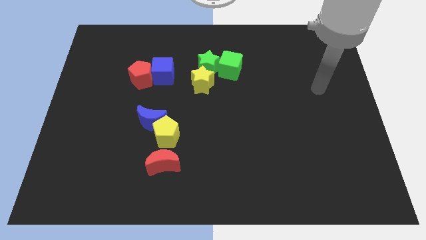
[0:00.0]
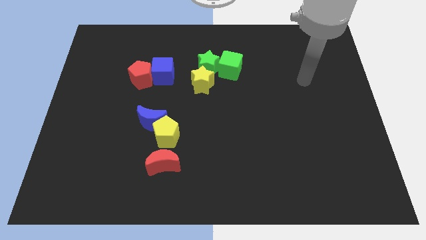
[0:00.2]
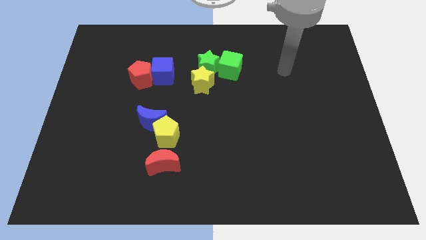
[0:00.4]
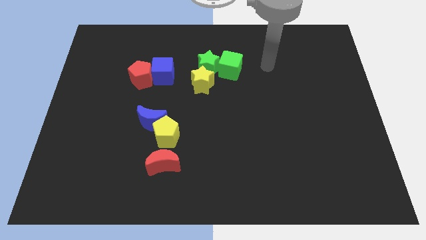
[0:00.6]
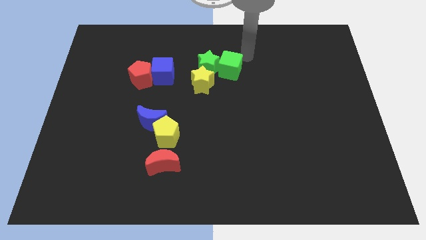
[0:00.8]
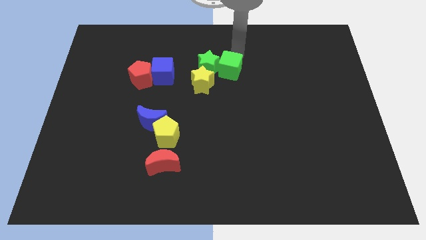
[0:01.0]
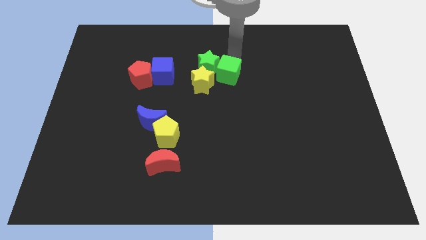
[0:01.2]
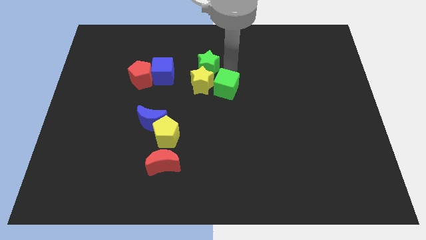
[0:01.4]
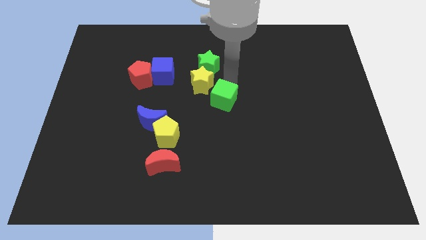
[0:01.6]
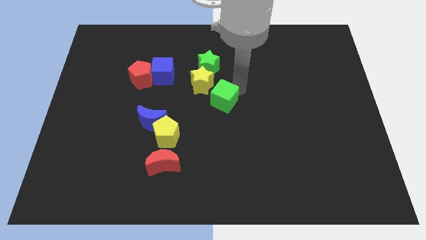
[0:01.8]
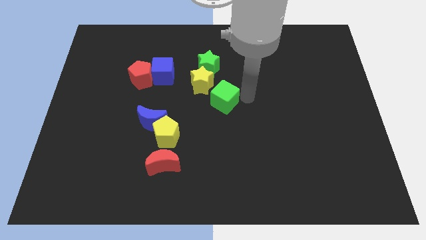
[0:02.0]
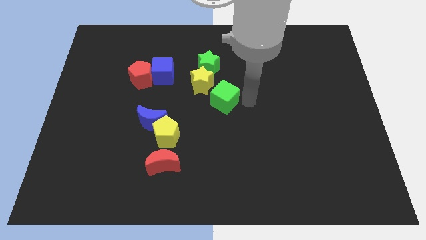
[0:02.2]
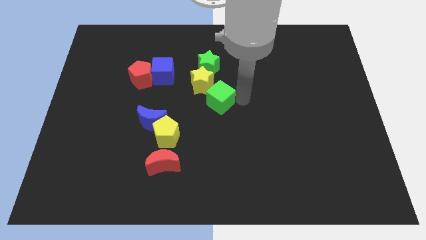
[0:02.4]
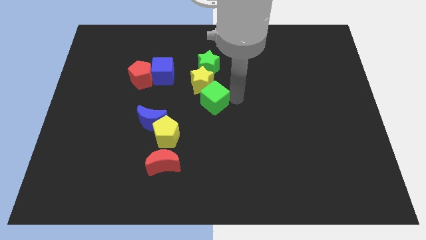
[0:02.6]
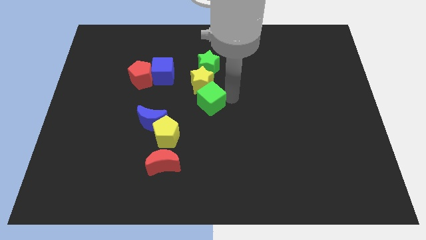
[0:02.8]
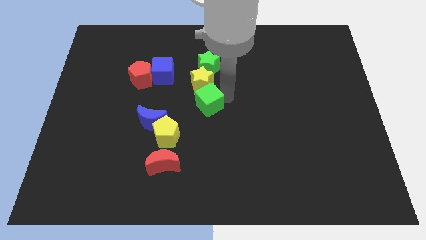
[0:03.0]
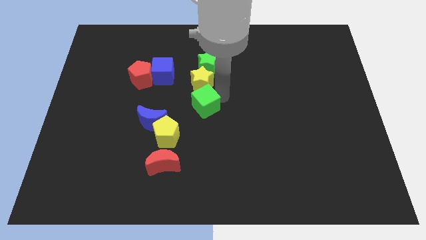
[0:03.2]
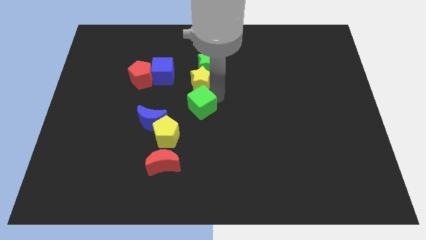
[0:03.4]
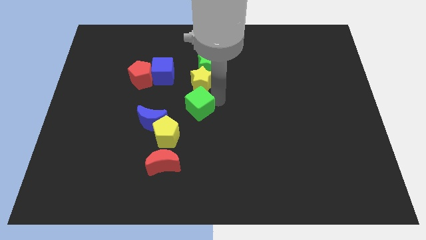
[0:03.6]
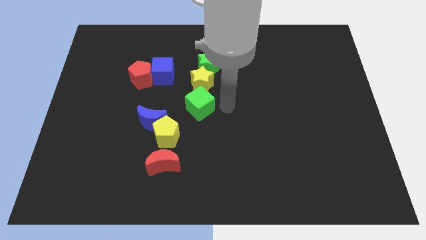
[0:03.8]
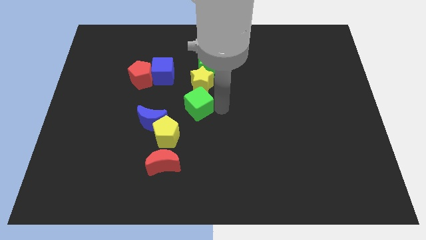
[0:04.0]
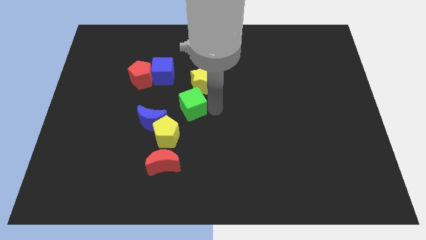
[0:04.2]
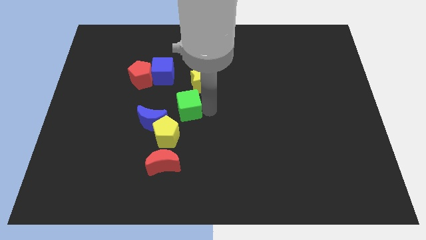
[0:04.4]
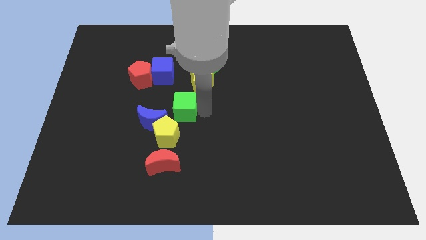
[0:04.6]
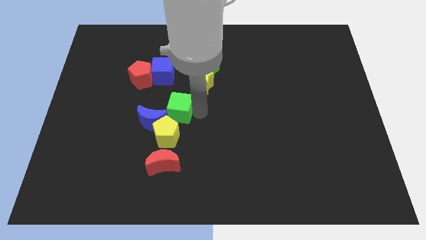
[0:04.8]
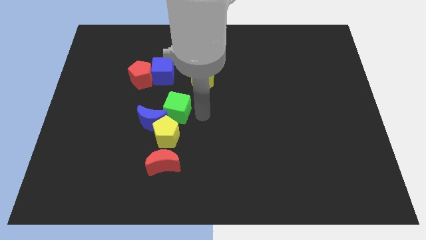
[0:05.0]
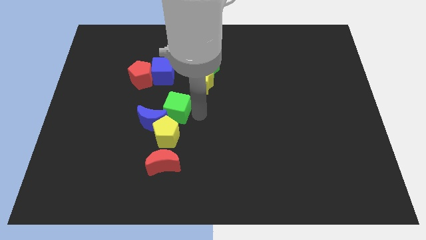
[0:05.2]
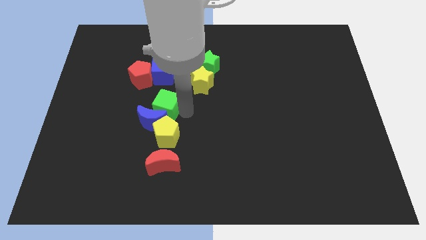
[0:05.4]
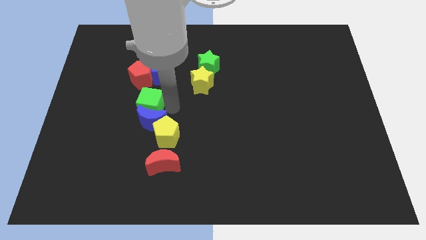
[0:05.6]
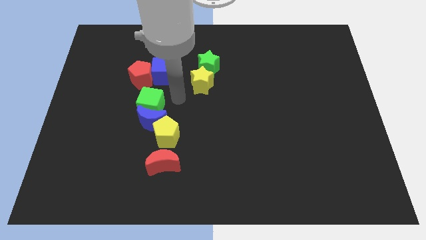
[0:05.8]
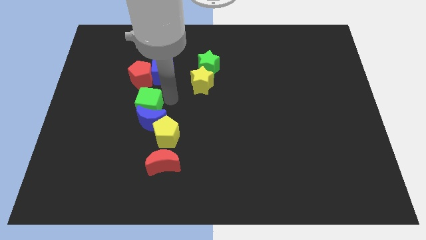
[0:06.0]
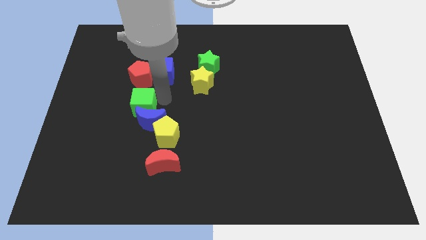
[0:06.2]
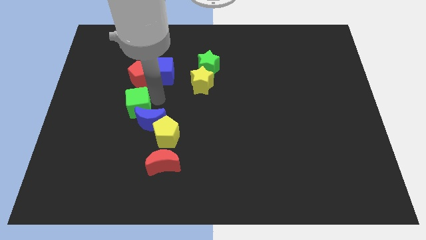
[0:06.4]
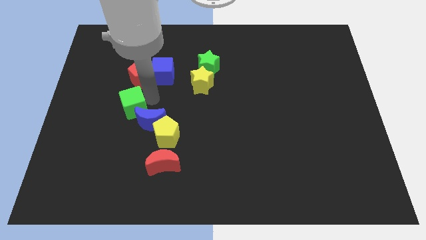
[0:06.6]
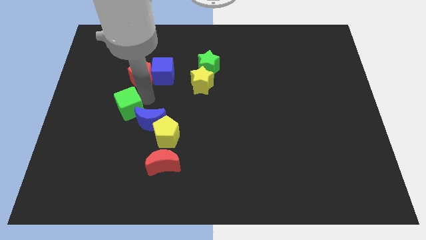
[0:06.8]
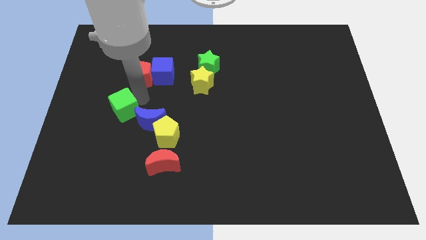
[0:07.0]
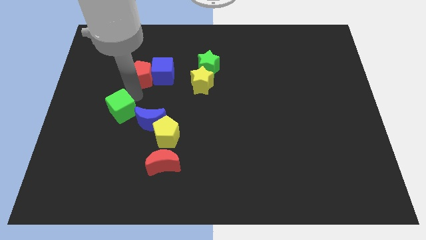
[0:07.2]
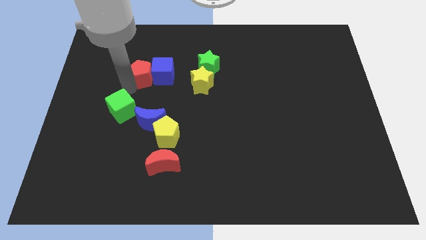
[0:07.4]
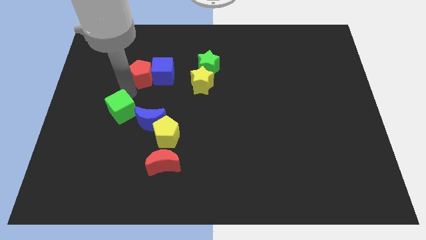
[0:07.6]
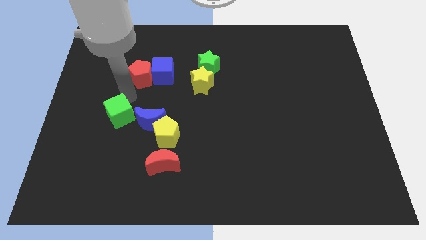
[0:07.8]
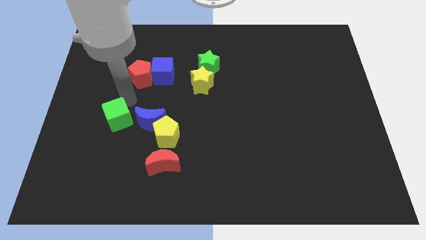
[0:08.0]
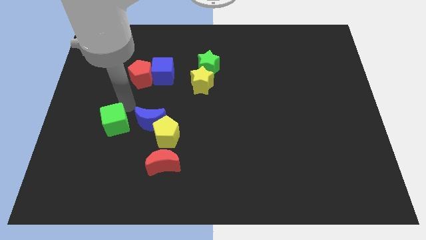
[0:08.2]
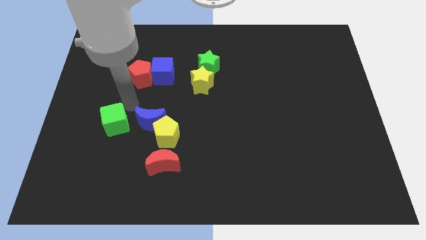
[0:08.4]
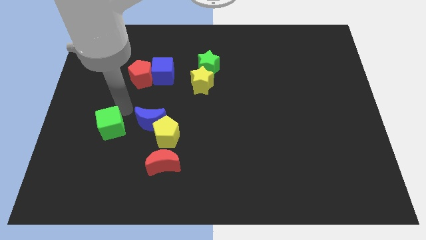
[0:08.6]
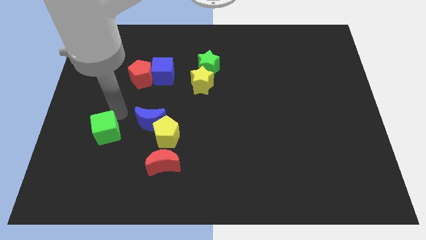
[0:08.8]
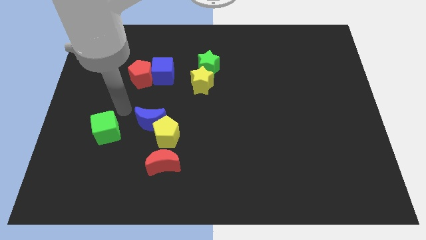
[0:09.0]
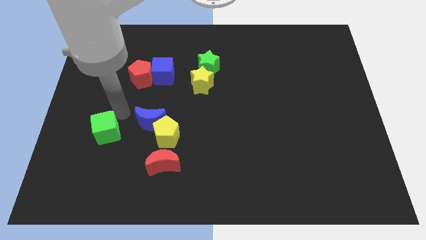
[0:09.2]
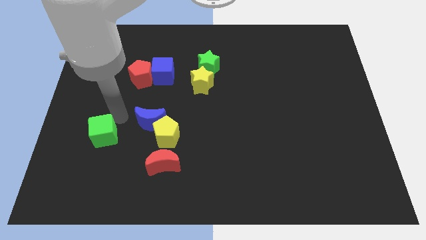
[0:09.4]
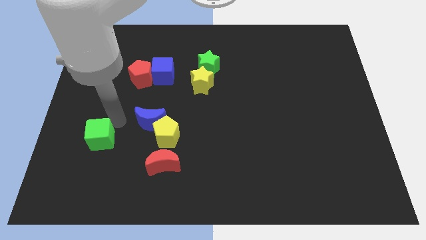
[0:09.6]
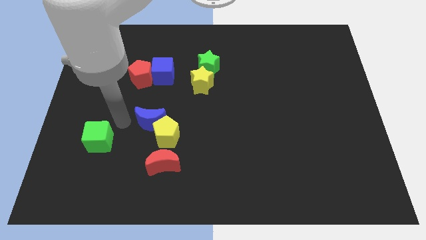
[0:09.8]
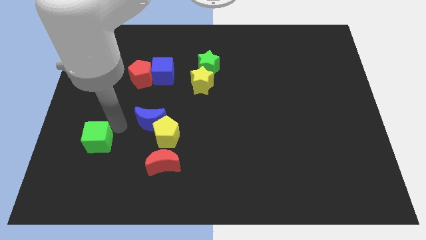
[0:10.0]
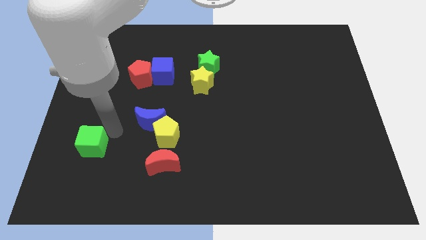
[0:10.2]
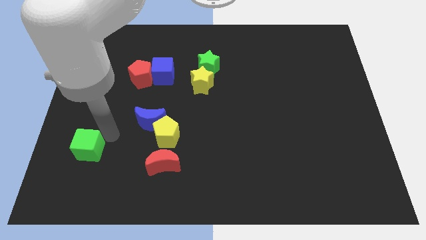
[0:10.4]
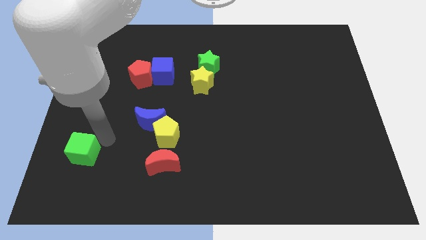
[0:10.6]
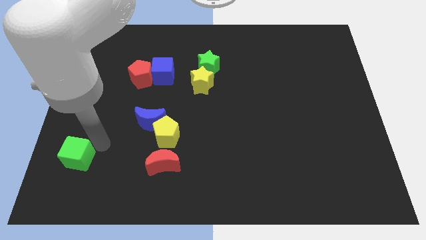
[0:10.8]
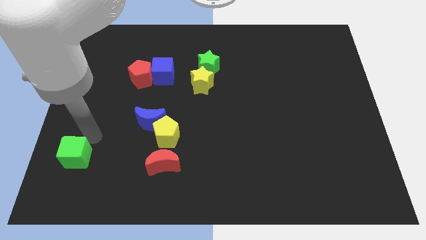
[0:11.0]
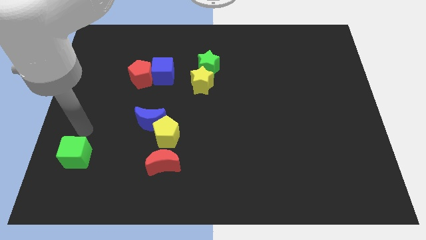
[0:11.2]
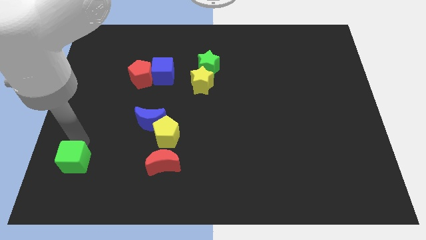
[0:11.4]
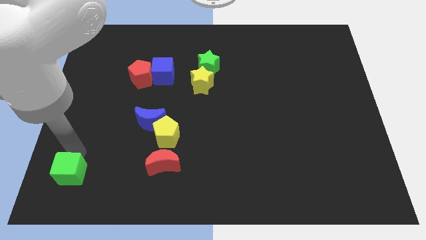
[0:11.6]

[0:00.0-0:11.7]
push the green cube to the bottom left

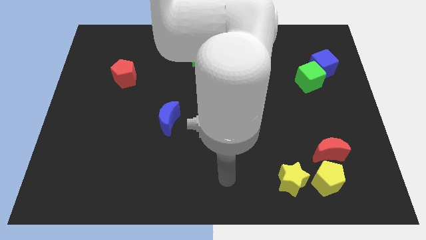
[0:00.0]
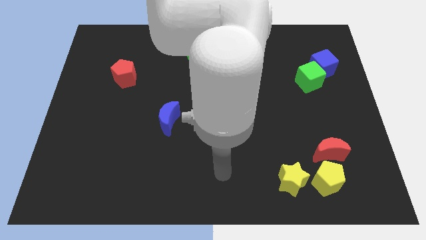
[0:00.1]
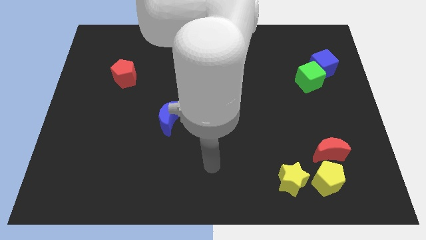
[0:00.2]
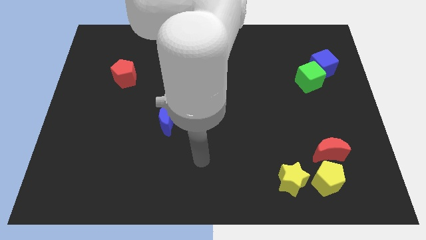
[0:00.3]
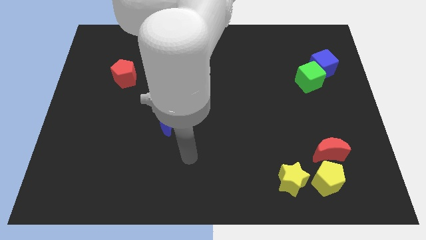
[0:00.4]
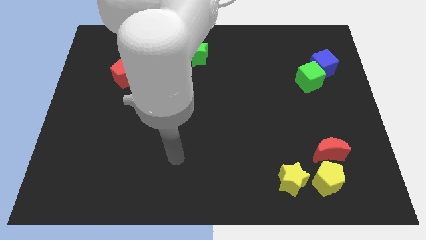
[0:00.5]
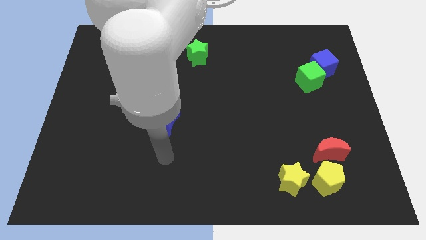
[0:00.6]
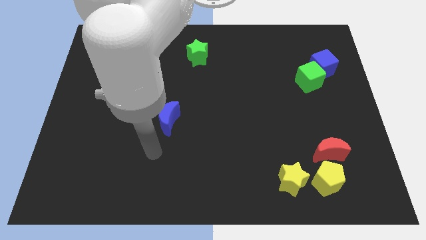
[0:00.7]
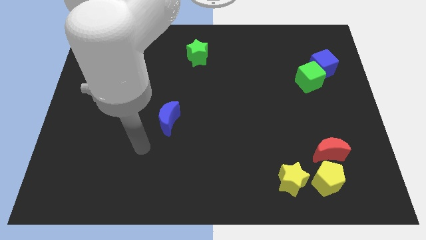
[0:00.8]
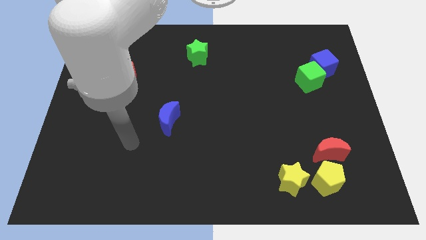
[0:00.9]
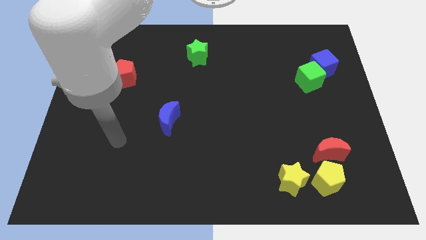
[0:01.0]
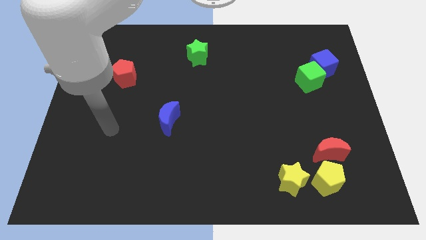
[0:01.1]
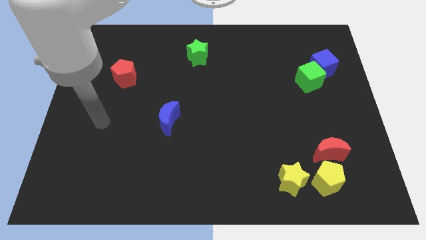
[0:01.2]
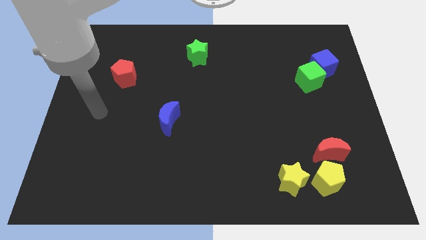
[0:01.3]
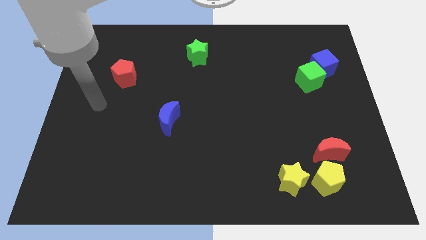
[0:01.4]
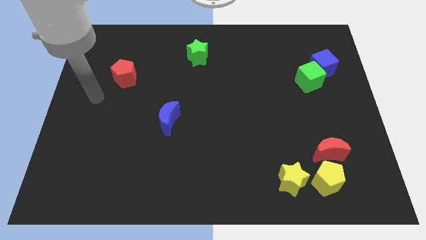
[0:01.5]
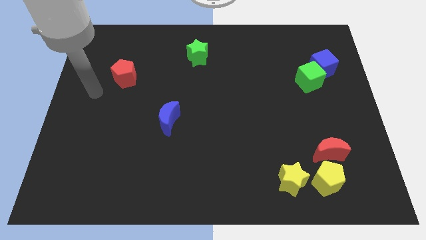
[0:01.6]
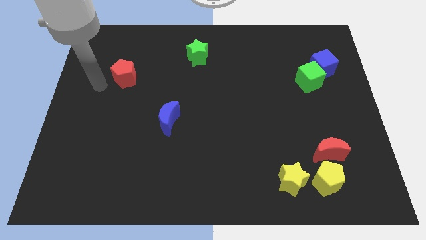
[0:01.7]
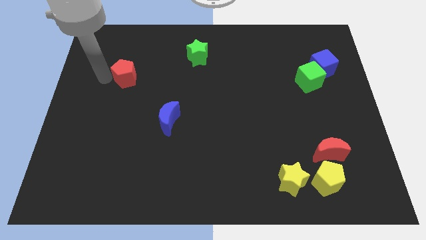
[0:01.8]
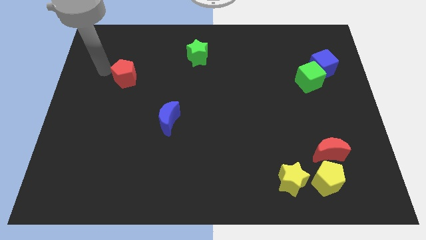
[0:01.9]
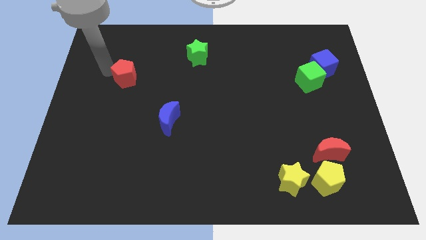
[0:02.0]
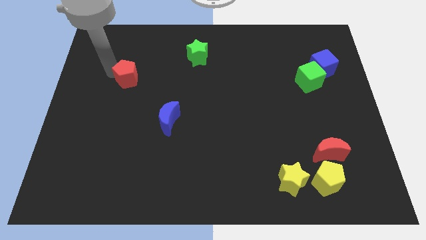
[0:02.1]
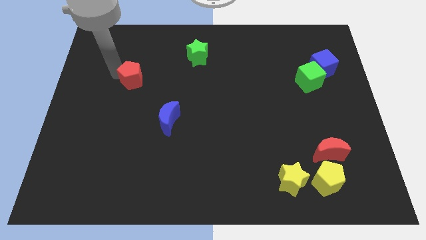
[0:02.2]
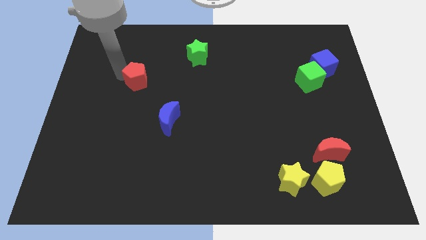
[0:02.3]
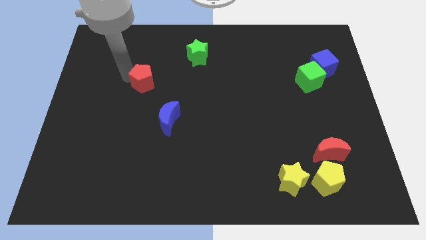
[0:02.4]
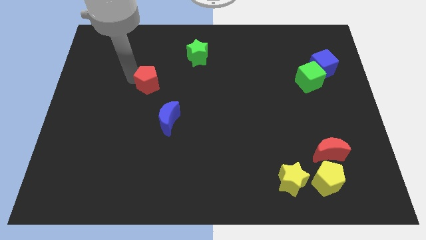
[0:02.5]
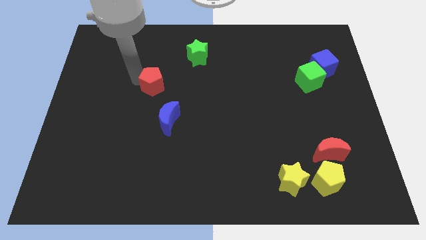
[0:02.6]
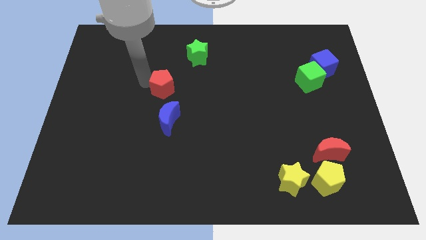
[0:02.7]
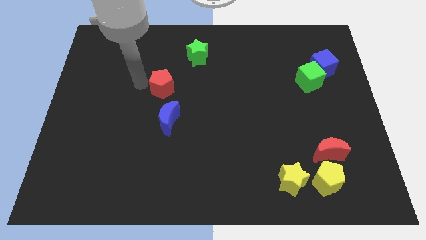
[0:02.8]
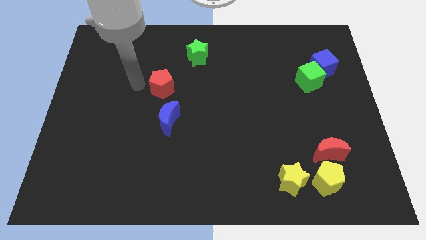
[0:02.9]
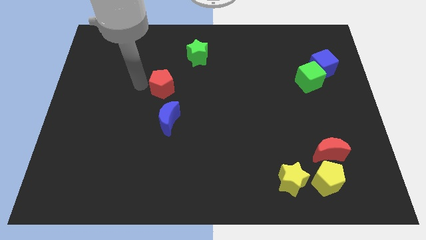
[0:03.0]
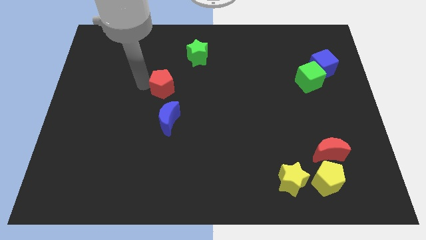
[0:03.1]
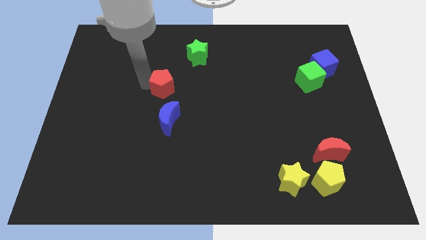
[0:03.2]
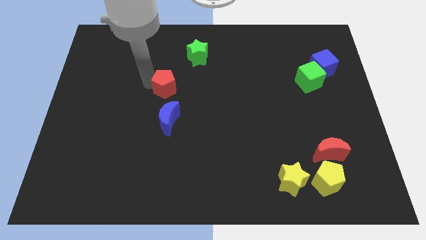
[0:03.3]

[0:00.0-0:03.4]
push the red pentagon to the center
